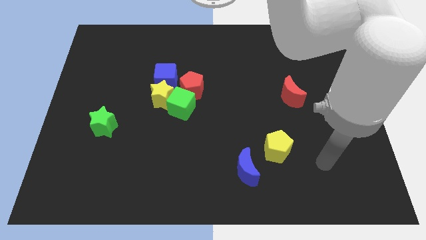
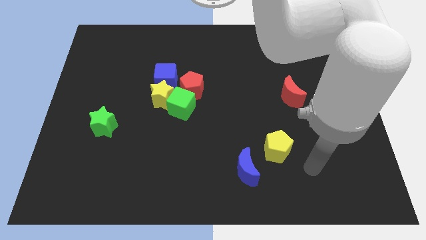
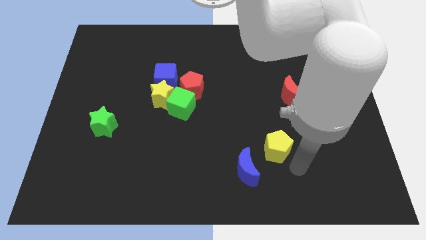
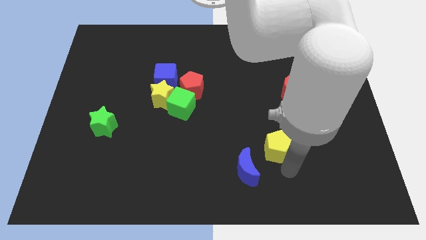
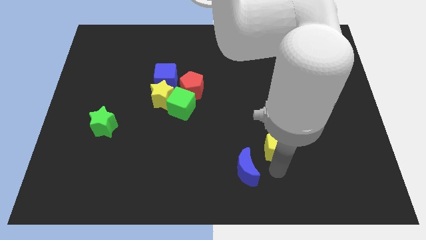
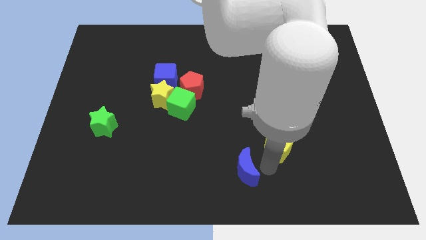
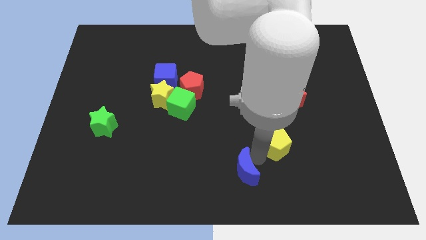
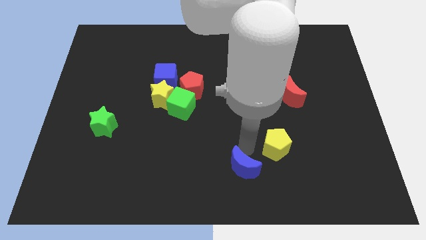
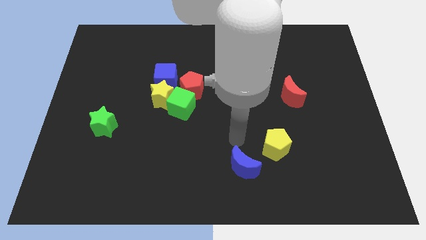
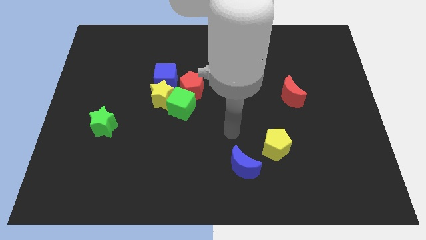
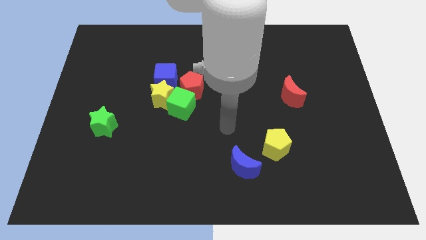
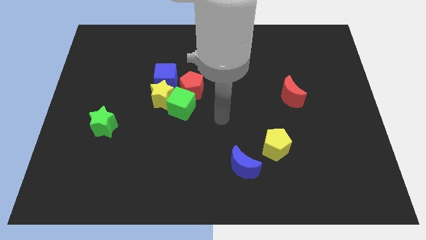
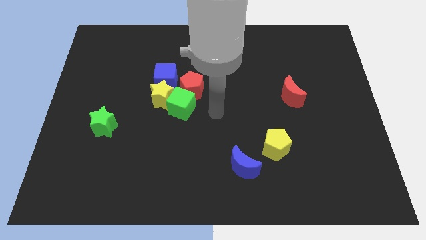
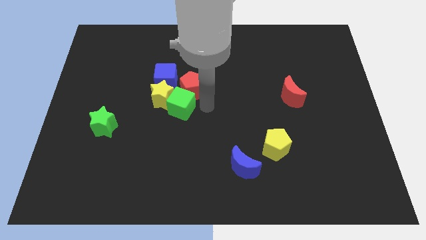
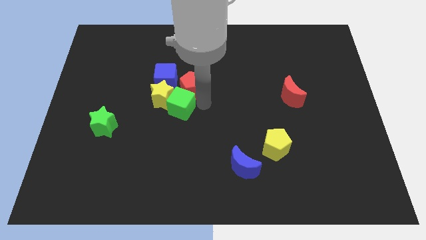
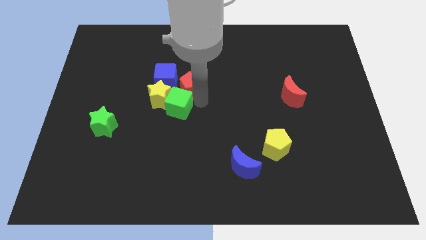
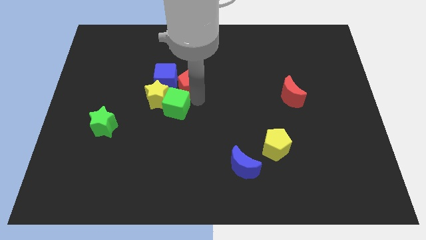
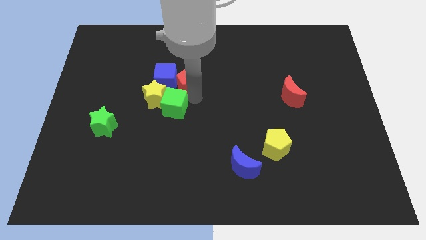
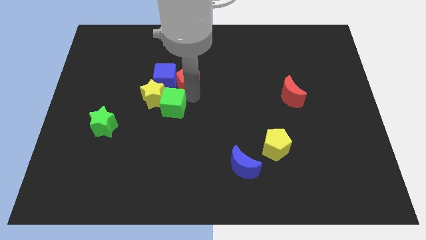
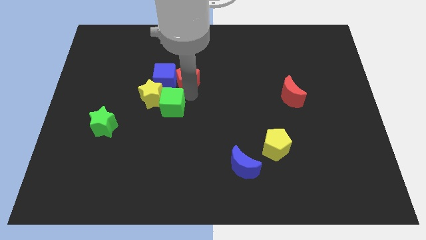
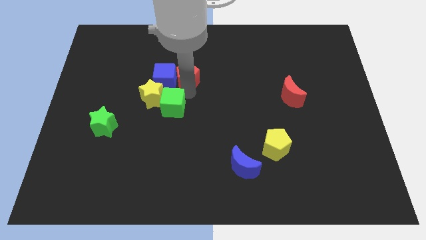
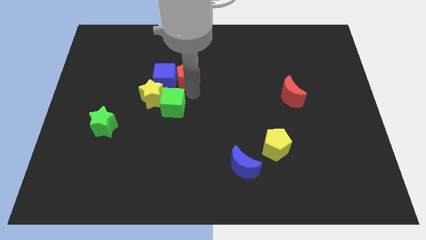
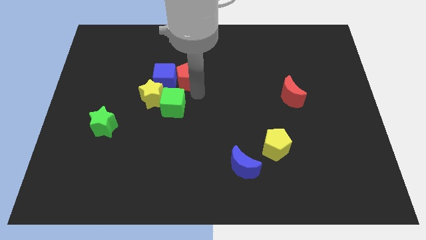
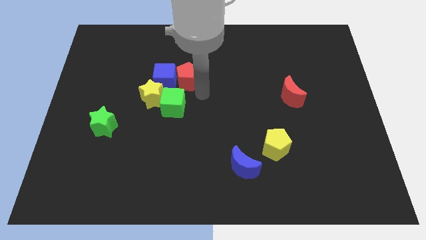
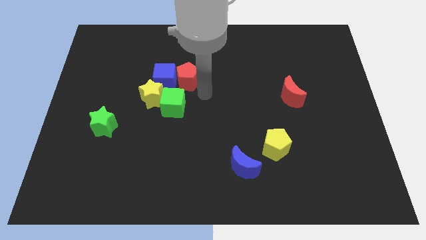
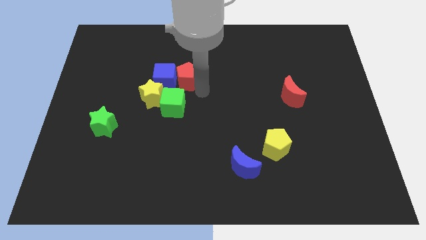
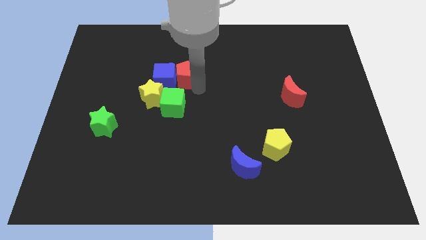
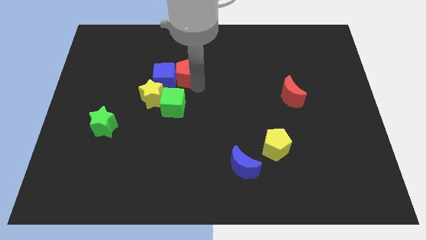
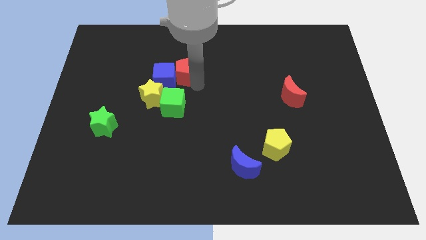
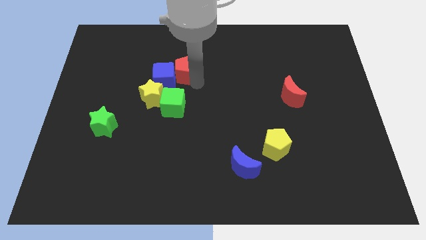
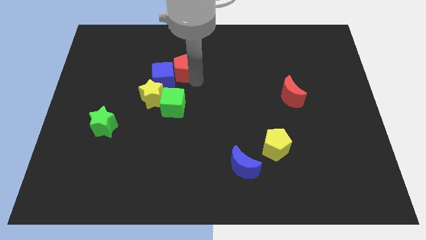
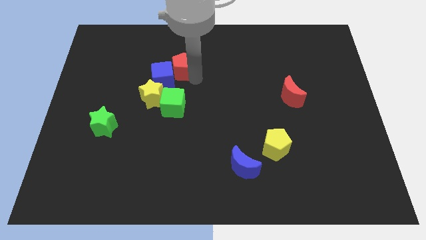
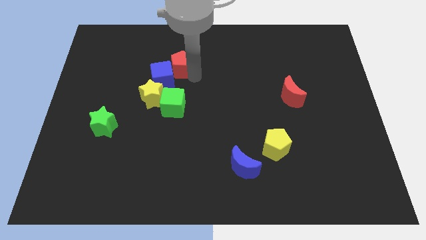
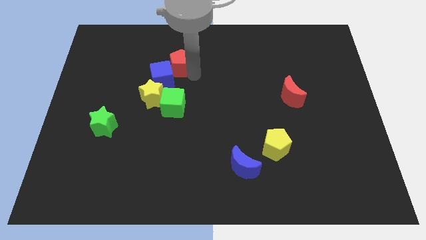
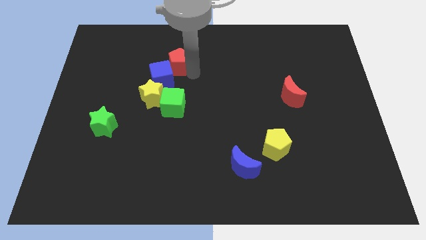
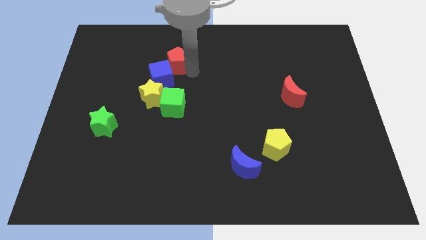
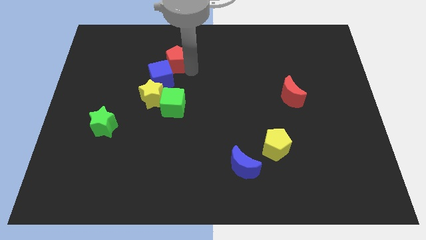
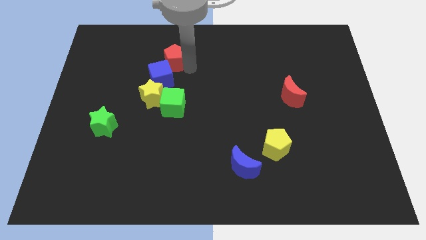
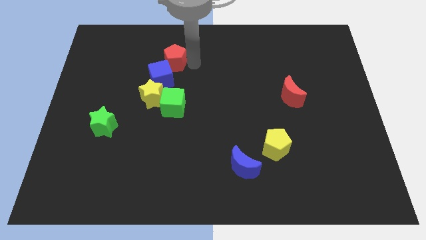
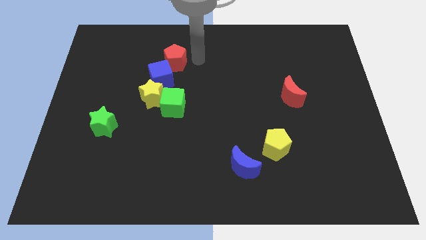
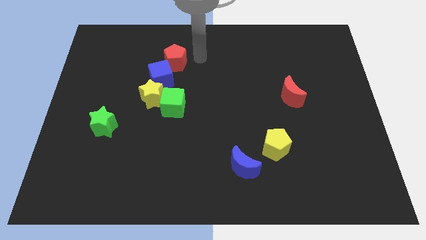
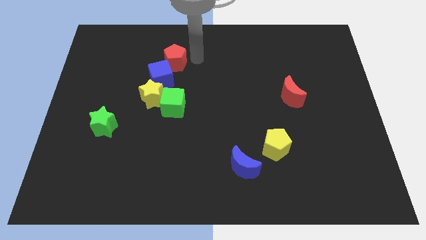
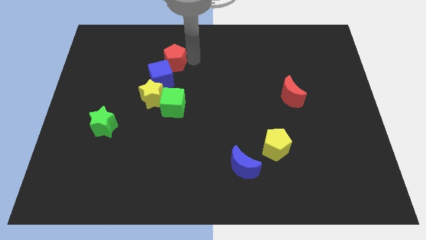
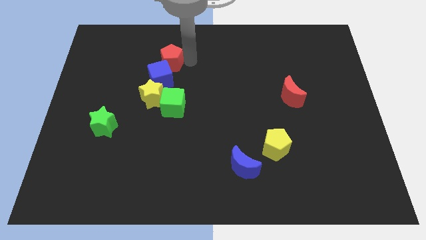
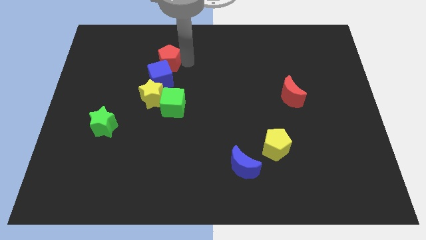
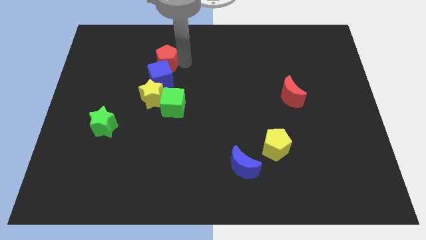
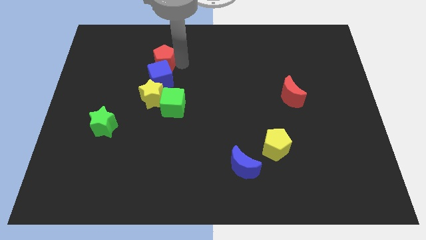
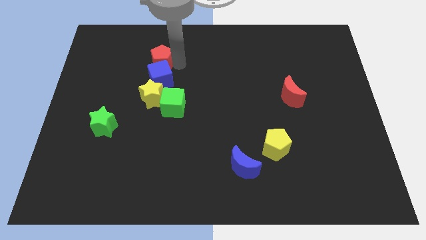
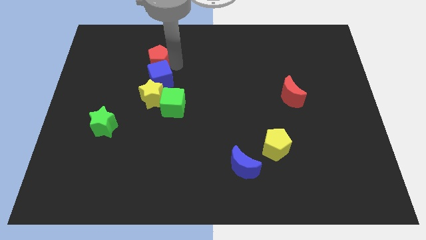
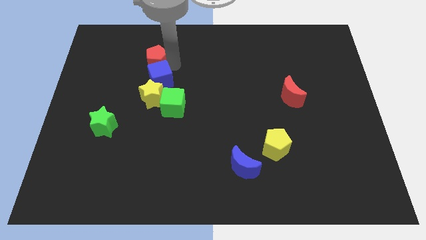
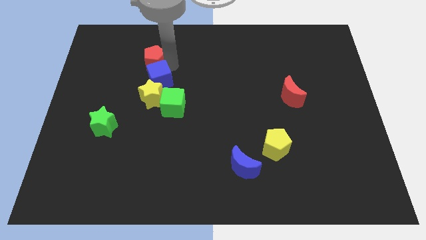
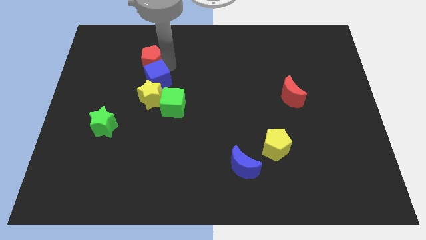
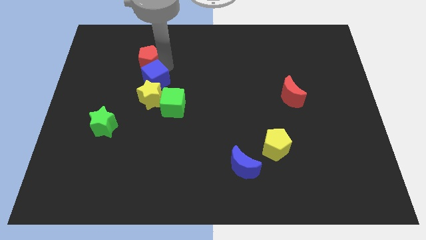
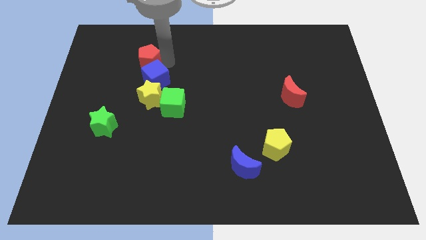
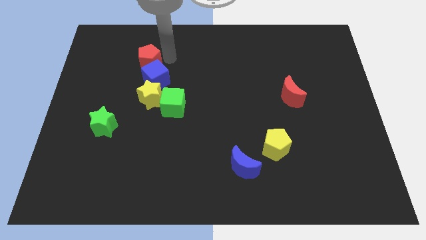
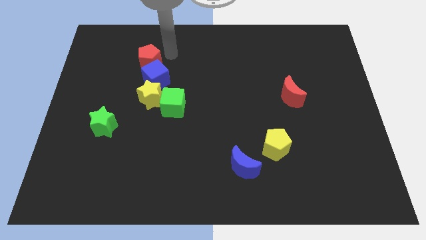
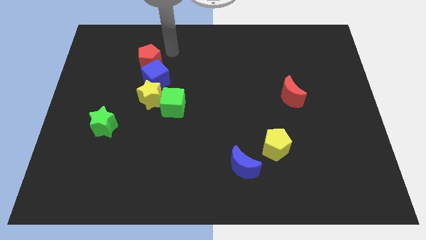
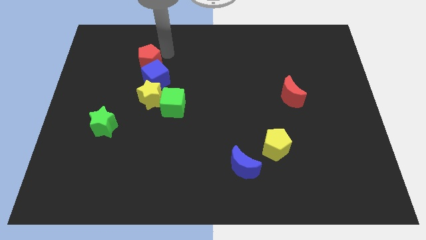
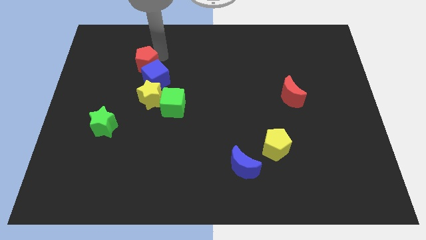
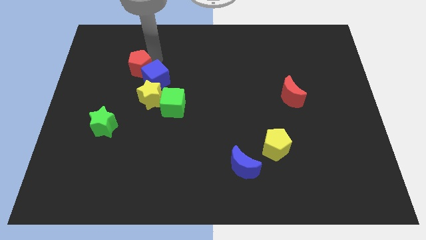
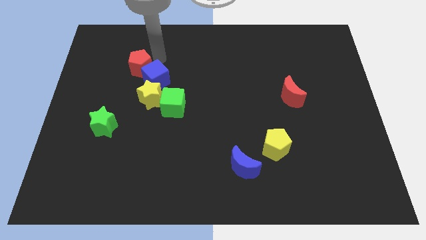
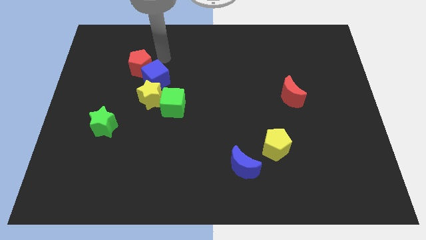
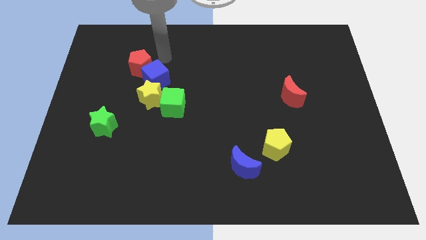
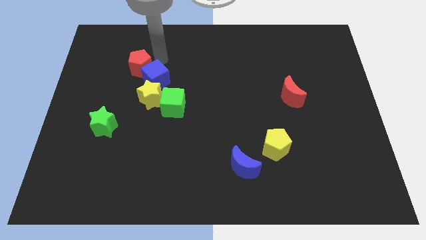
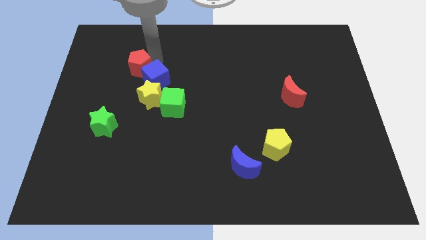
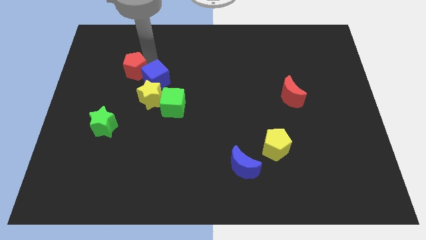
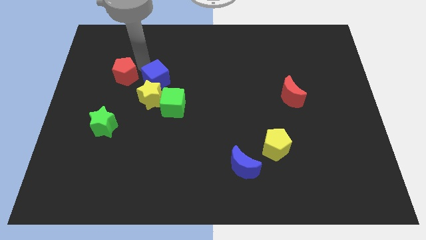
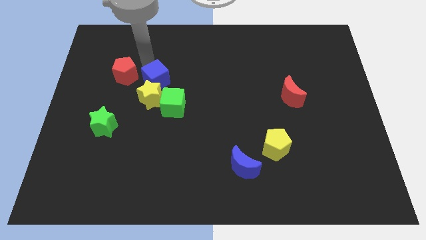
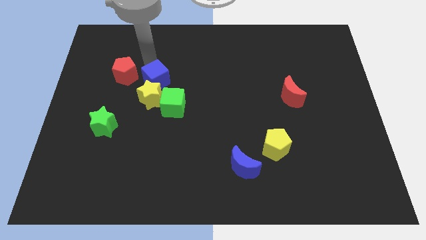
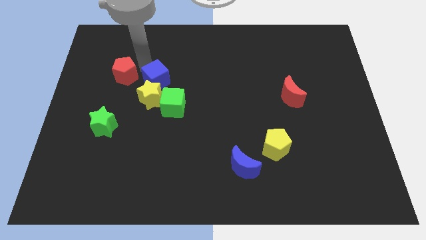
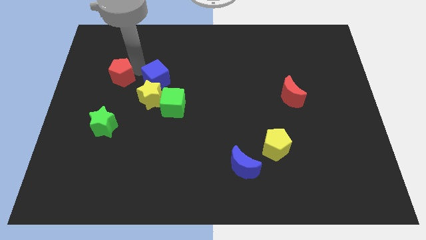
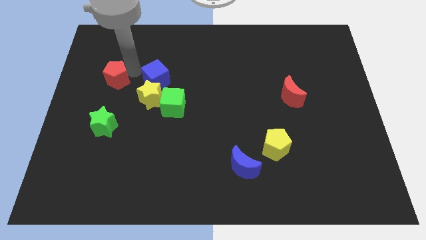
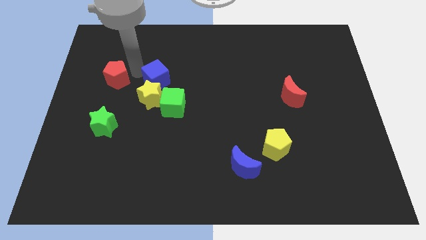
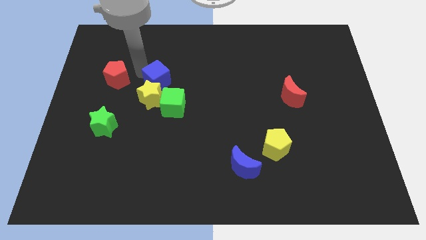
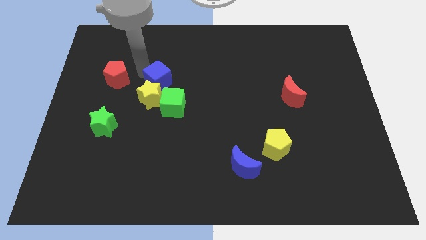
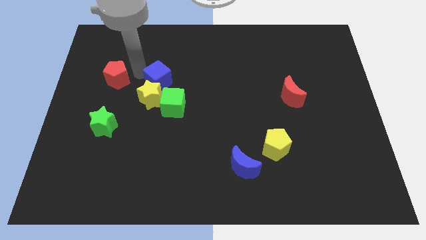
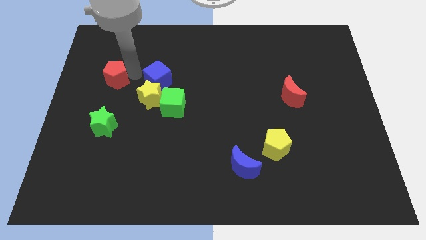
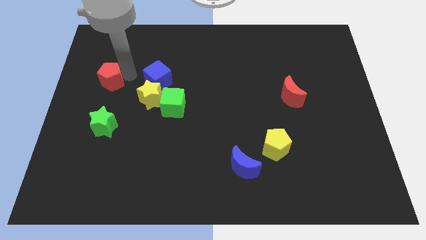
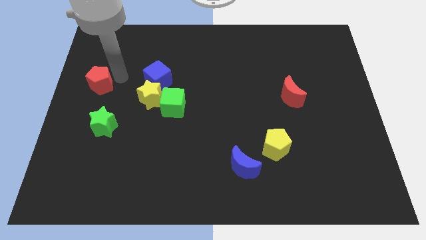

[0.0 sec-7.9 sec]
move the red pentagon to the center left
